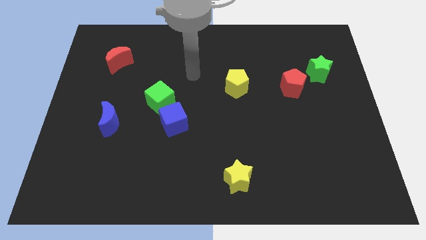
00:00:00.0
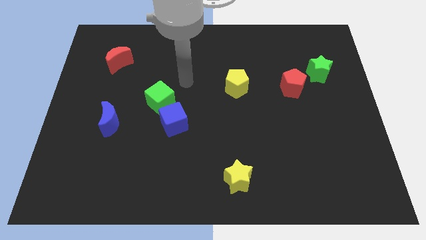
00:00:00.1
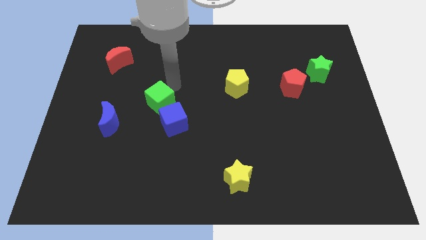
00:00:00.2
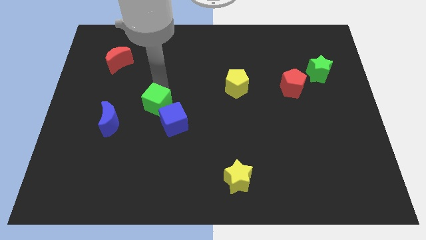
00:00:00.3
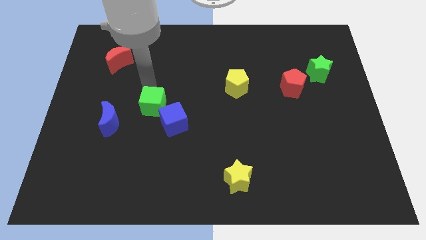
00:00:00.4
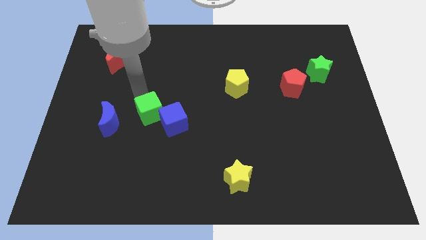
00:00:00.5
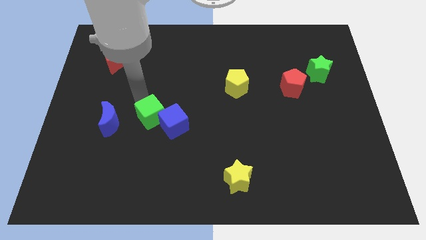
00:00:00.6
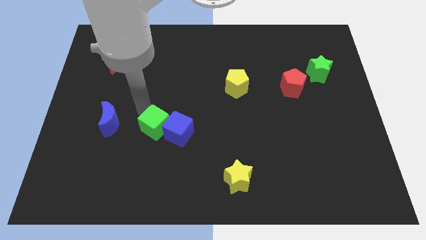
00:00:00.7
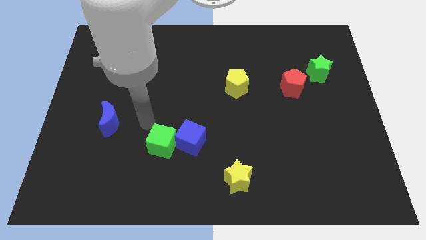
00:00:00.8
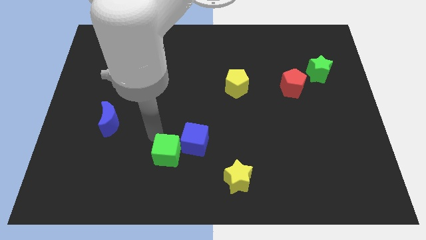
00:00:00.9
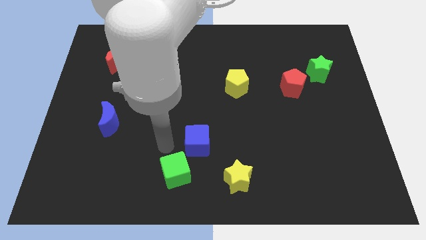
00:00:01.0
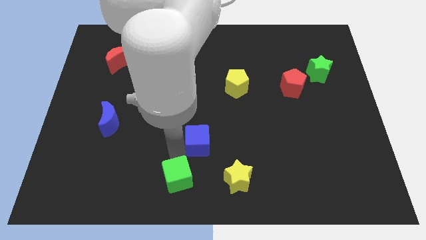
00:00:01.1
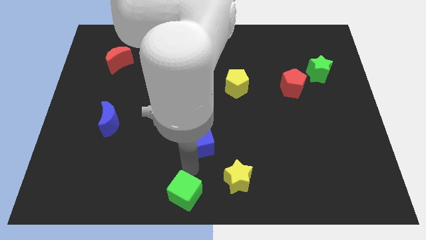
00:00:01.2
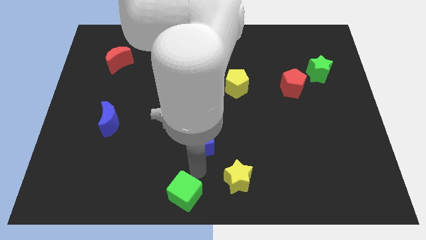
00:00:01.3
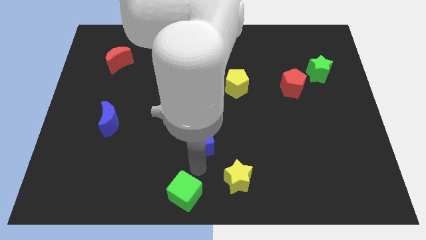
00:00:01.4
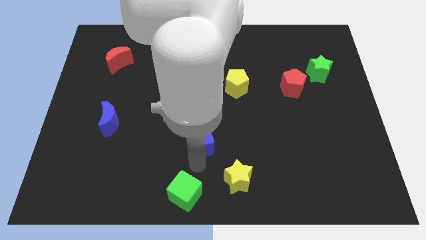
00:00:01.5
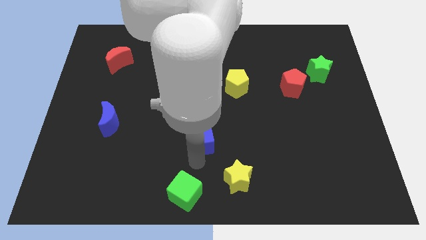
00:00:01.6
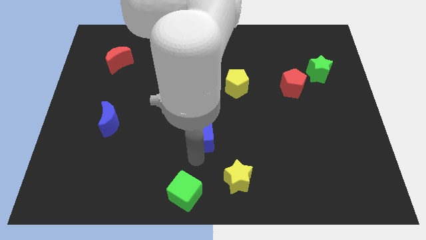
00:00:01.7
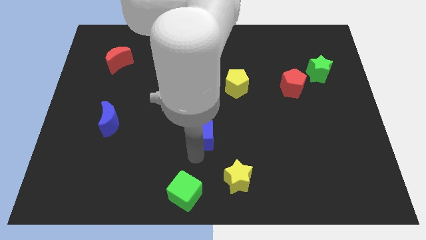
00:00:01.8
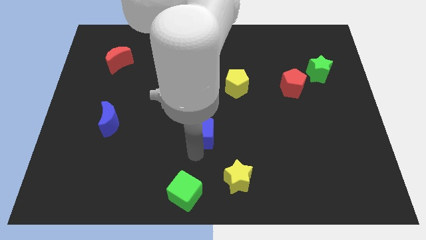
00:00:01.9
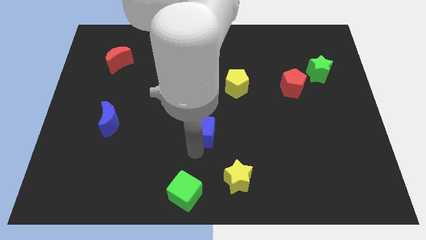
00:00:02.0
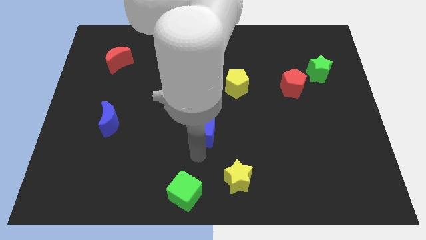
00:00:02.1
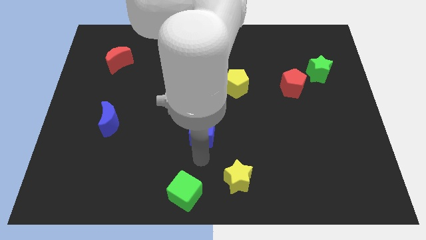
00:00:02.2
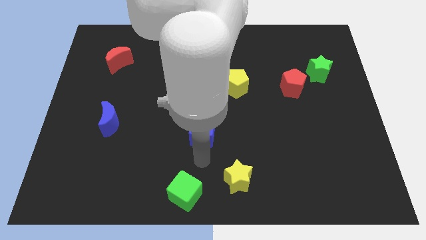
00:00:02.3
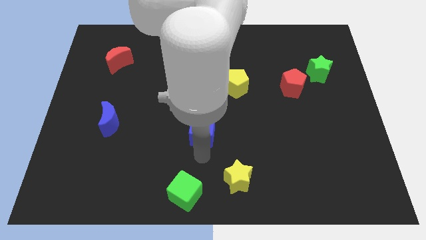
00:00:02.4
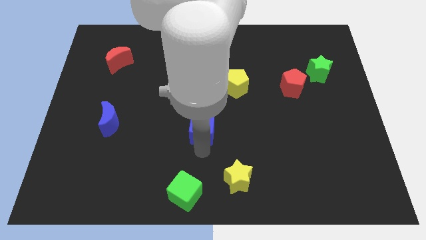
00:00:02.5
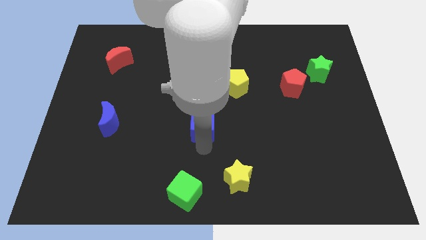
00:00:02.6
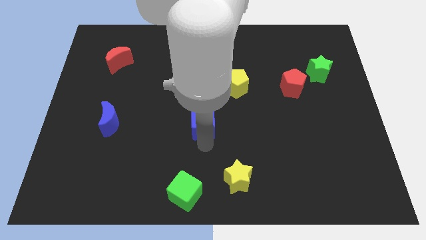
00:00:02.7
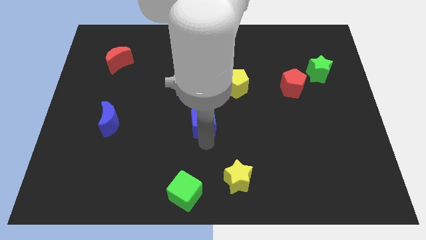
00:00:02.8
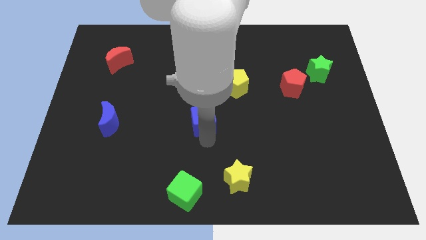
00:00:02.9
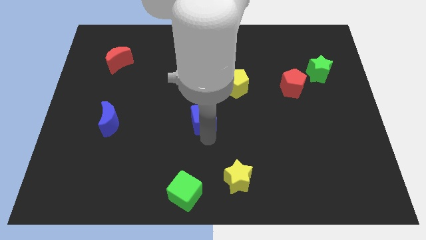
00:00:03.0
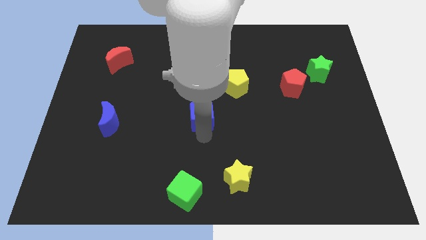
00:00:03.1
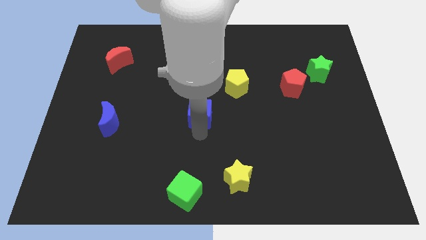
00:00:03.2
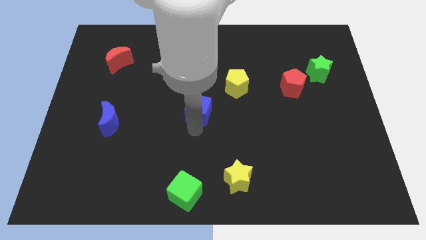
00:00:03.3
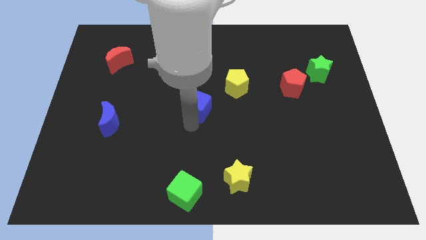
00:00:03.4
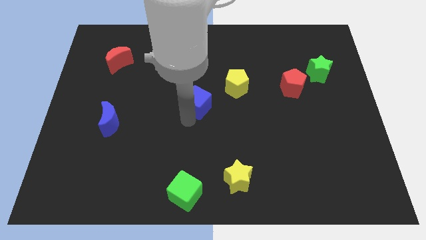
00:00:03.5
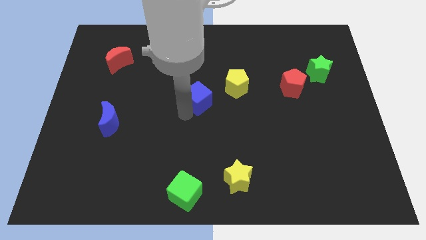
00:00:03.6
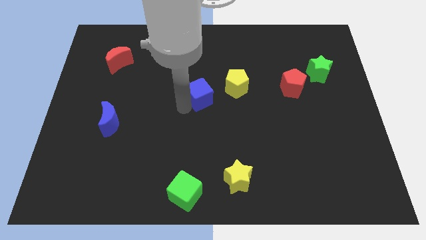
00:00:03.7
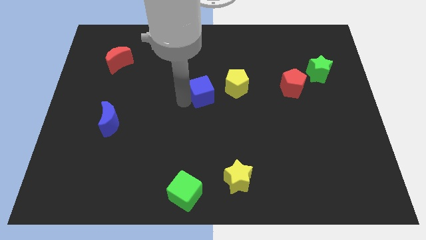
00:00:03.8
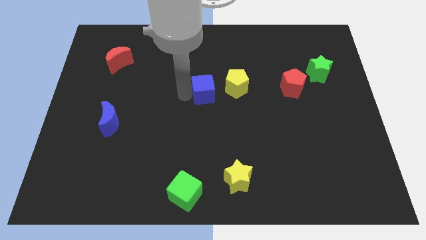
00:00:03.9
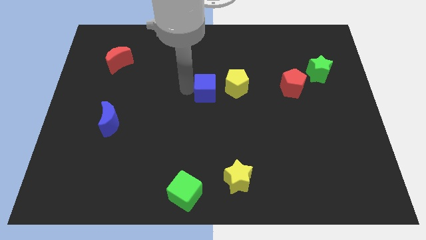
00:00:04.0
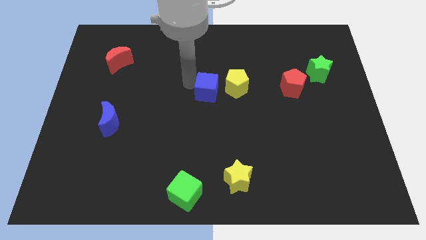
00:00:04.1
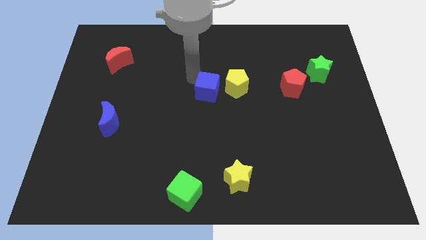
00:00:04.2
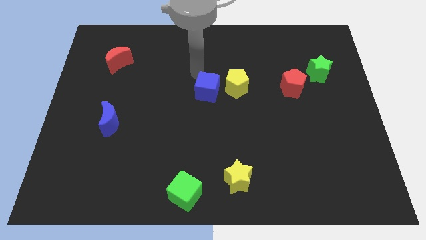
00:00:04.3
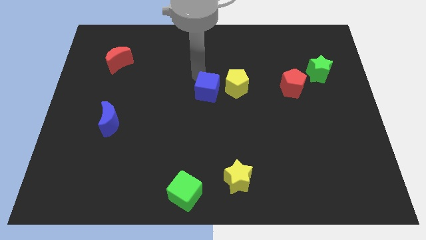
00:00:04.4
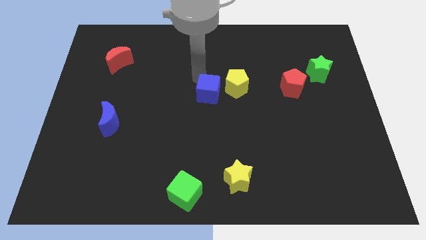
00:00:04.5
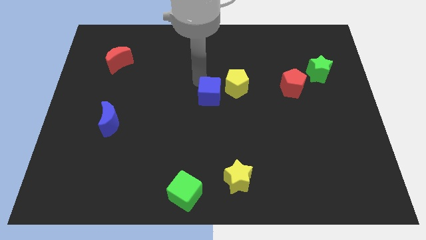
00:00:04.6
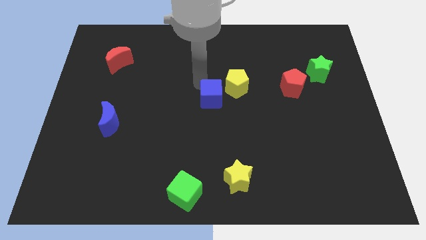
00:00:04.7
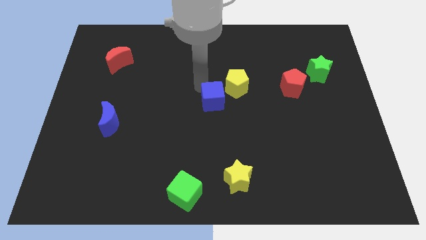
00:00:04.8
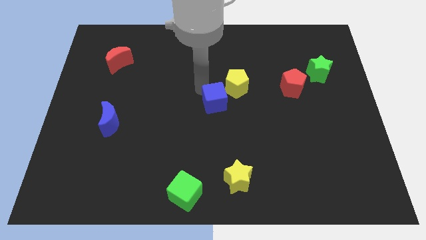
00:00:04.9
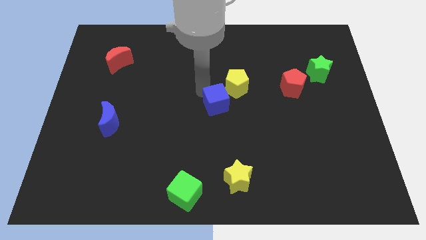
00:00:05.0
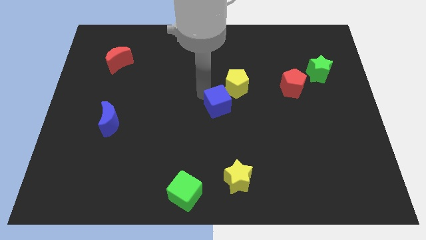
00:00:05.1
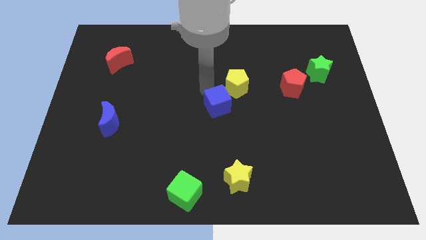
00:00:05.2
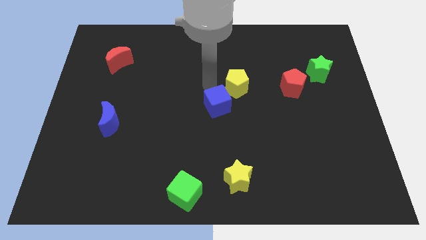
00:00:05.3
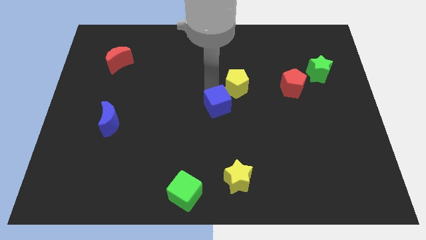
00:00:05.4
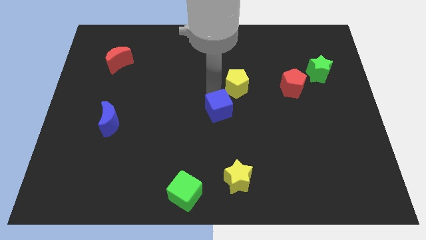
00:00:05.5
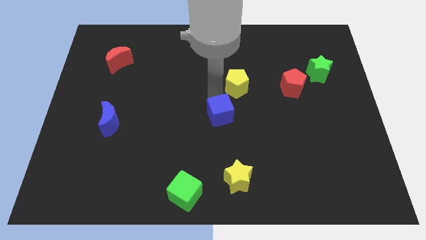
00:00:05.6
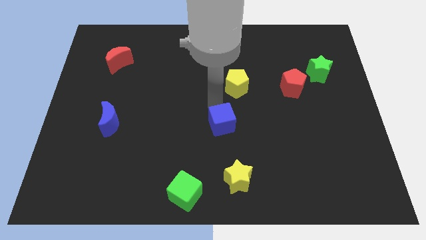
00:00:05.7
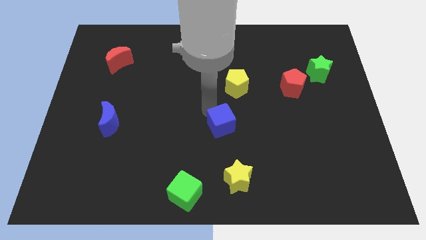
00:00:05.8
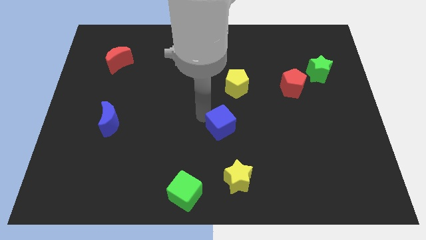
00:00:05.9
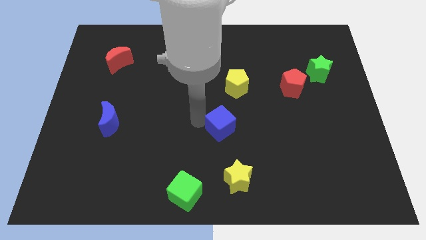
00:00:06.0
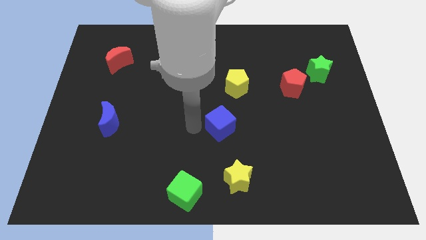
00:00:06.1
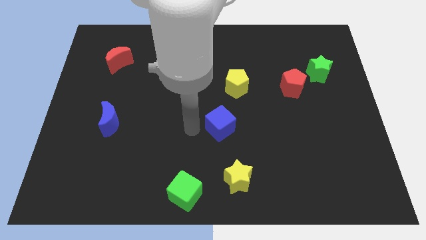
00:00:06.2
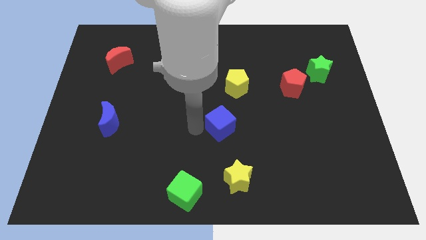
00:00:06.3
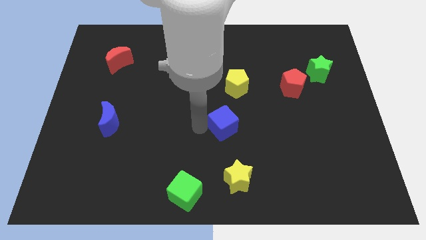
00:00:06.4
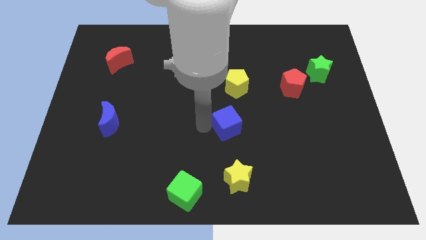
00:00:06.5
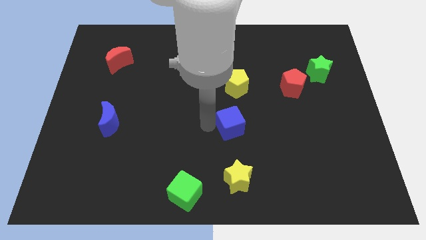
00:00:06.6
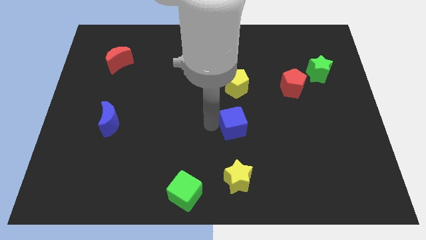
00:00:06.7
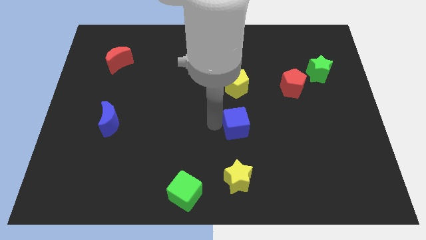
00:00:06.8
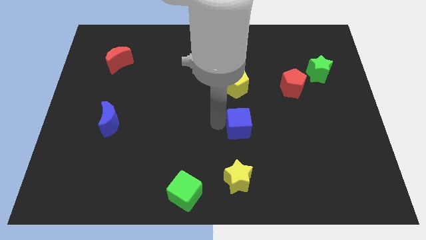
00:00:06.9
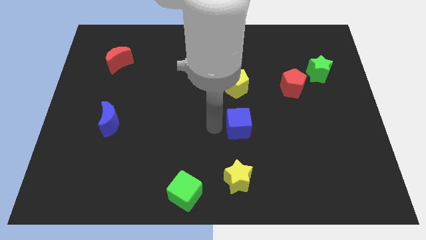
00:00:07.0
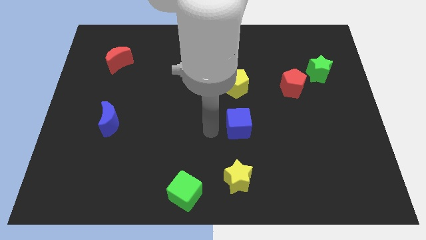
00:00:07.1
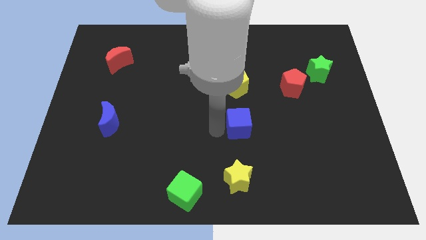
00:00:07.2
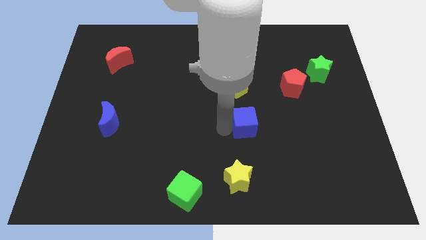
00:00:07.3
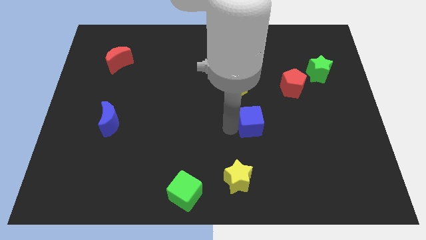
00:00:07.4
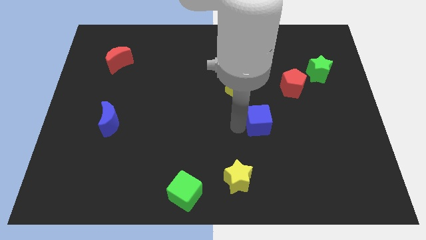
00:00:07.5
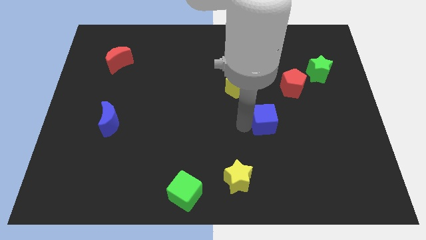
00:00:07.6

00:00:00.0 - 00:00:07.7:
slide the blue cube to the right

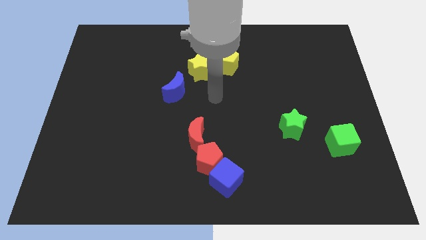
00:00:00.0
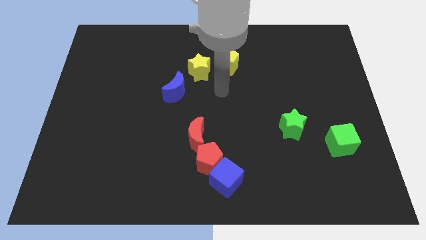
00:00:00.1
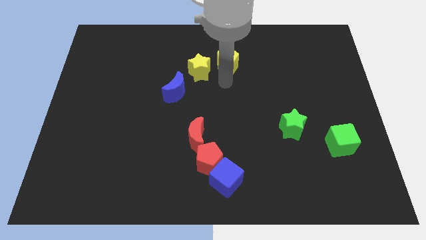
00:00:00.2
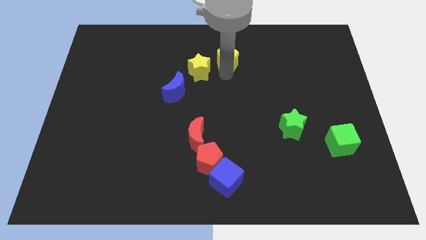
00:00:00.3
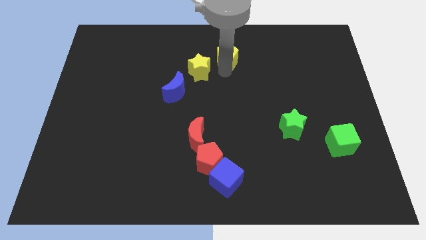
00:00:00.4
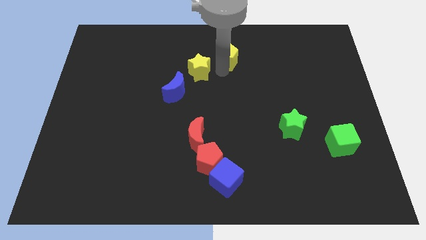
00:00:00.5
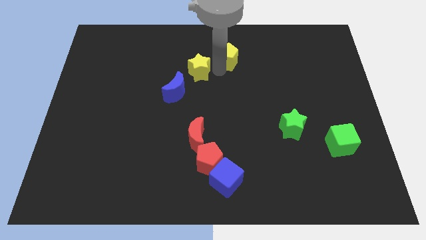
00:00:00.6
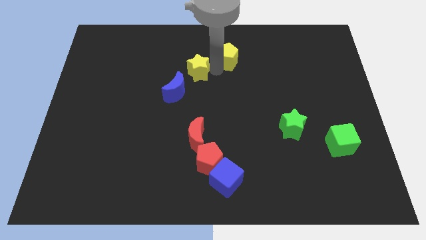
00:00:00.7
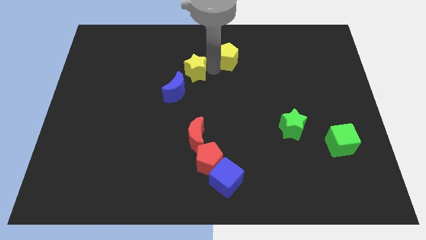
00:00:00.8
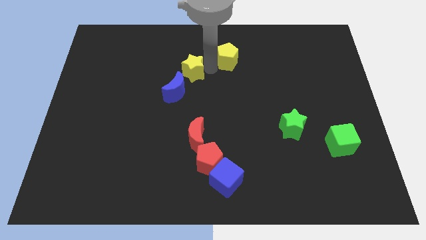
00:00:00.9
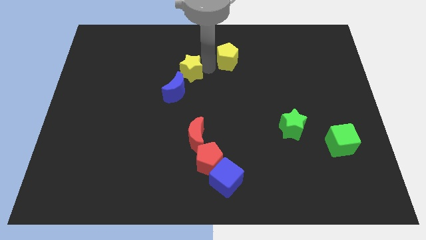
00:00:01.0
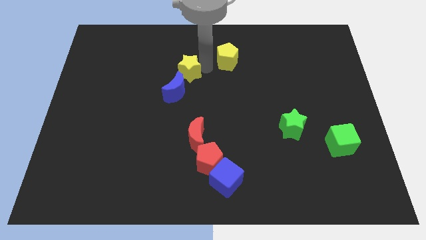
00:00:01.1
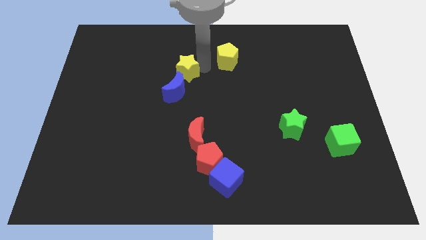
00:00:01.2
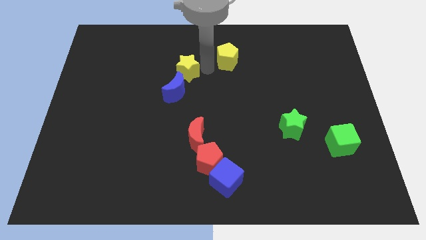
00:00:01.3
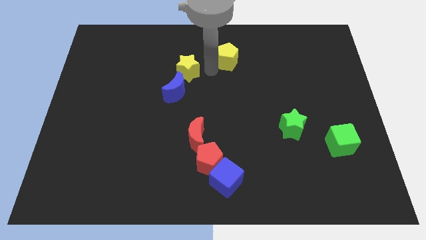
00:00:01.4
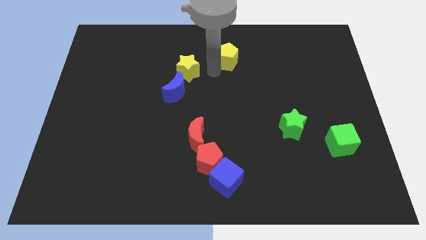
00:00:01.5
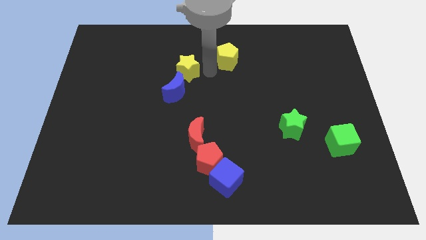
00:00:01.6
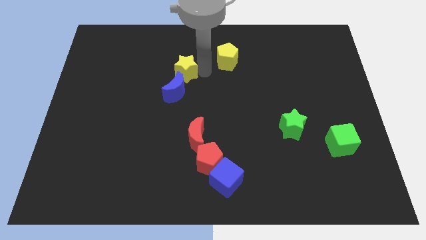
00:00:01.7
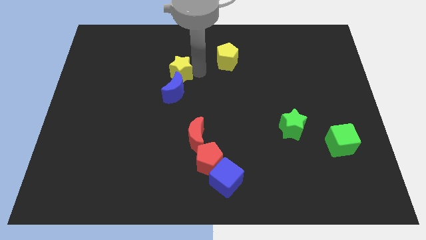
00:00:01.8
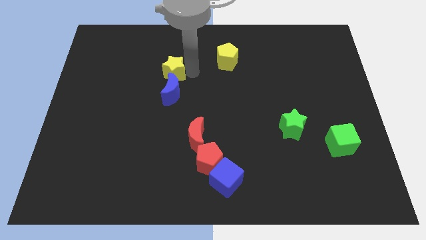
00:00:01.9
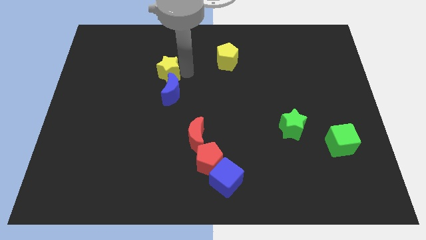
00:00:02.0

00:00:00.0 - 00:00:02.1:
slightly push the yellow star left
